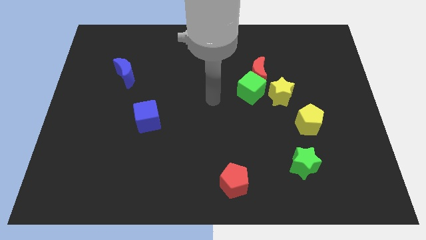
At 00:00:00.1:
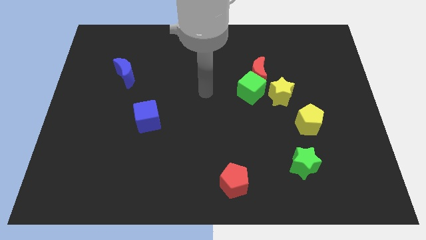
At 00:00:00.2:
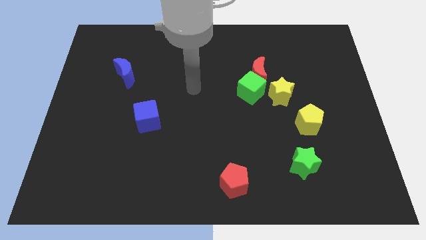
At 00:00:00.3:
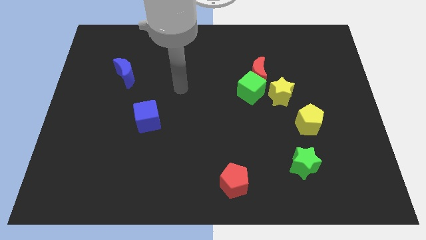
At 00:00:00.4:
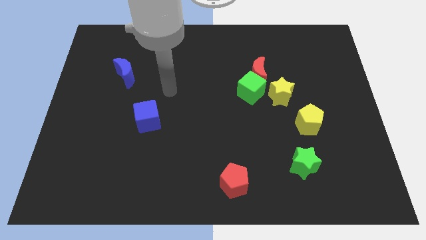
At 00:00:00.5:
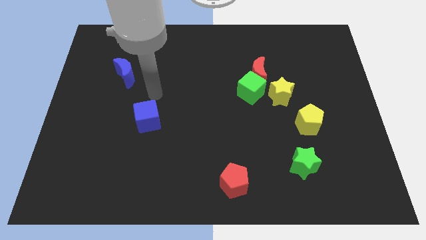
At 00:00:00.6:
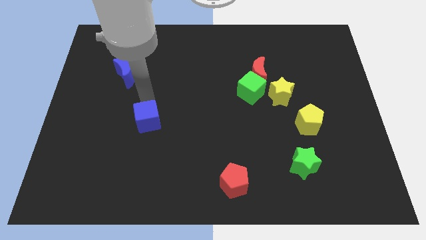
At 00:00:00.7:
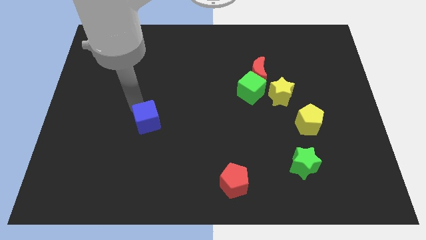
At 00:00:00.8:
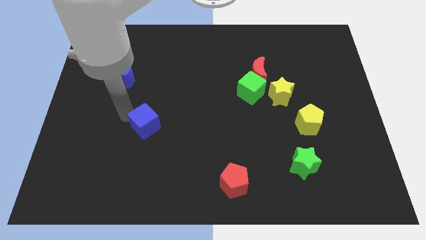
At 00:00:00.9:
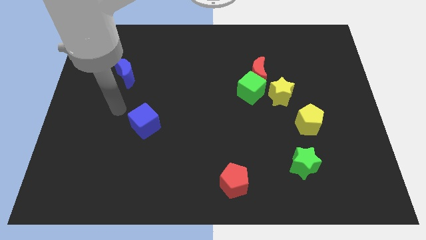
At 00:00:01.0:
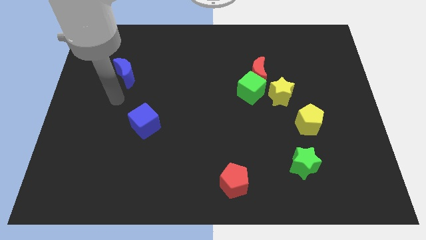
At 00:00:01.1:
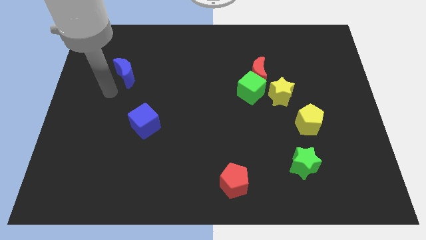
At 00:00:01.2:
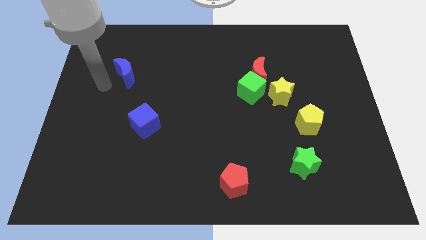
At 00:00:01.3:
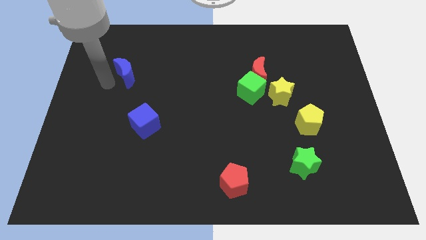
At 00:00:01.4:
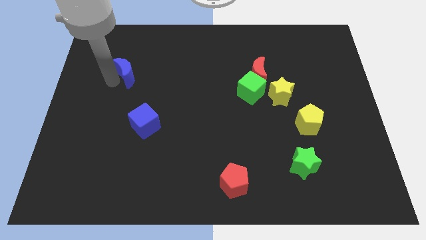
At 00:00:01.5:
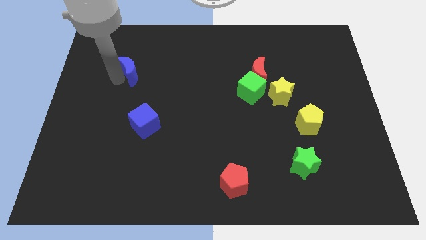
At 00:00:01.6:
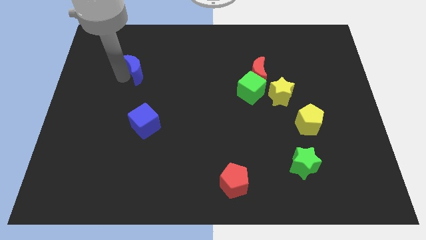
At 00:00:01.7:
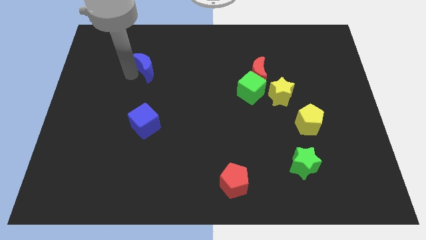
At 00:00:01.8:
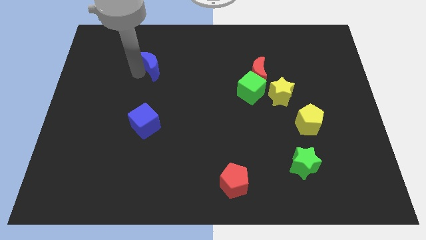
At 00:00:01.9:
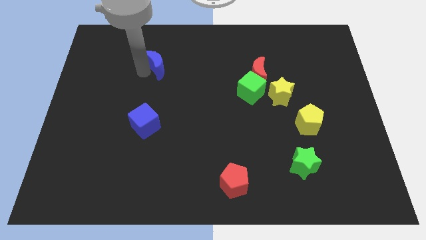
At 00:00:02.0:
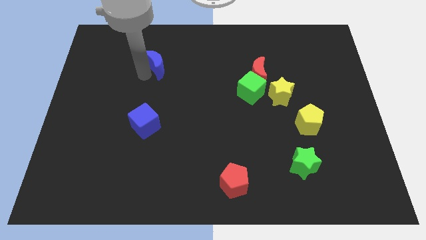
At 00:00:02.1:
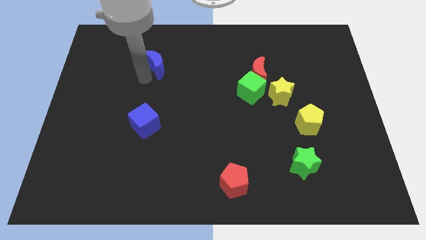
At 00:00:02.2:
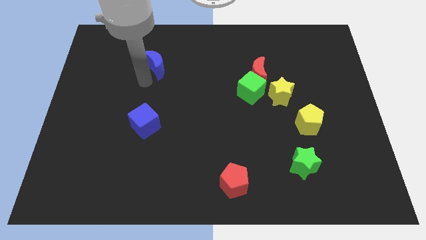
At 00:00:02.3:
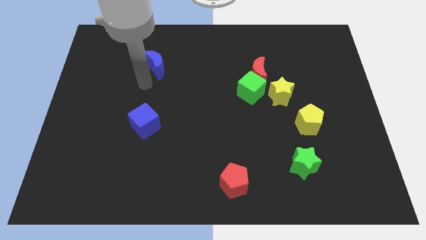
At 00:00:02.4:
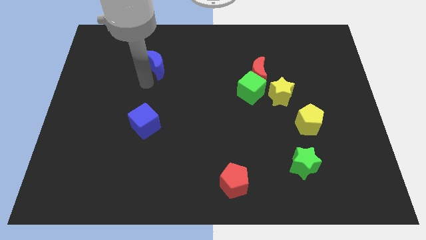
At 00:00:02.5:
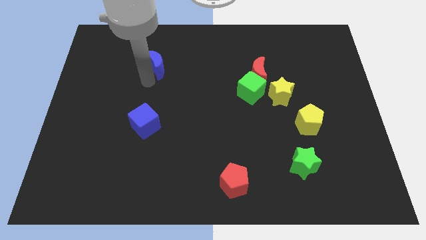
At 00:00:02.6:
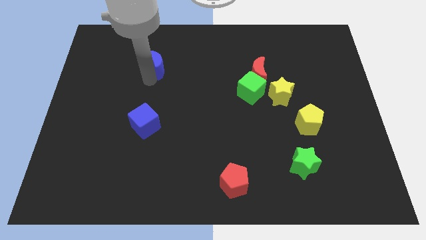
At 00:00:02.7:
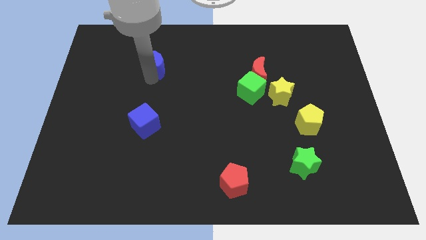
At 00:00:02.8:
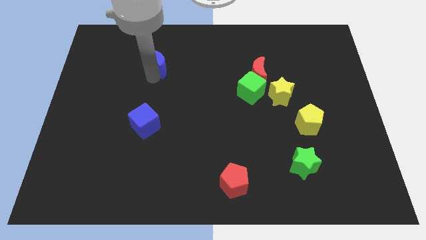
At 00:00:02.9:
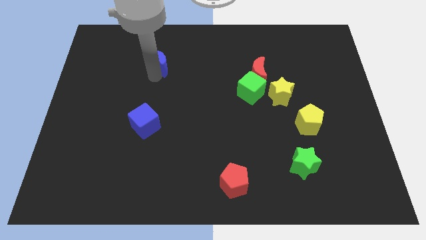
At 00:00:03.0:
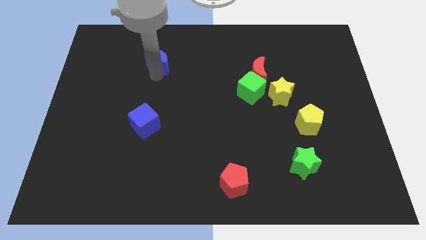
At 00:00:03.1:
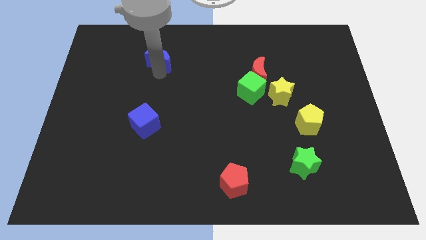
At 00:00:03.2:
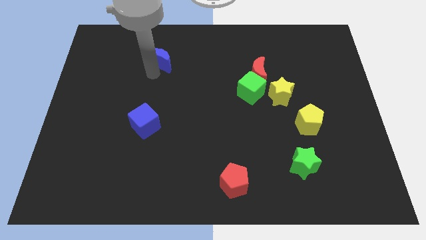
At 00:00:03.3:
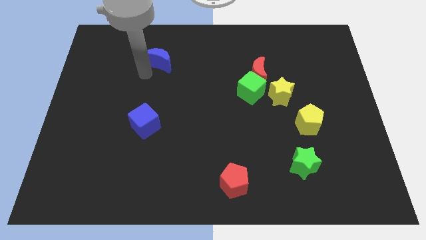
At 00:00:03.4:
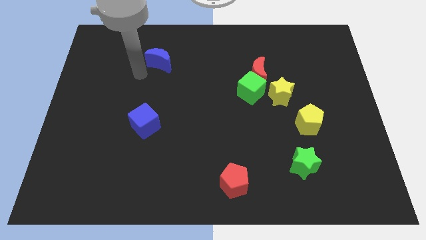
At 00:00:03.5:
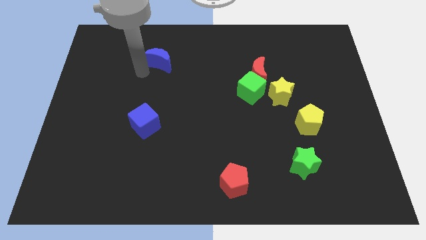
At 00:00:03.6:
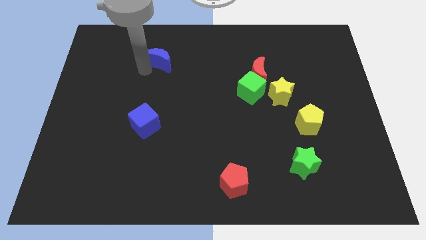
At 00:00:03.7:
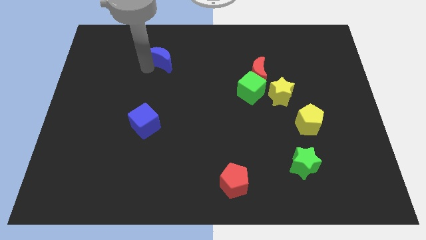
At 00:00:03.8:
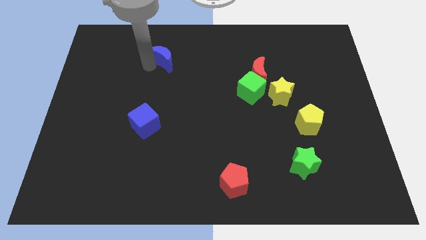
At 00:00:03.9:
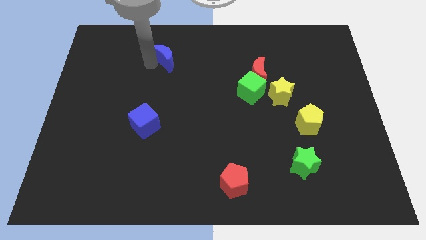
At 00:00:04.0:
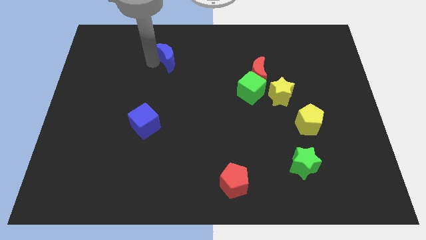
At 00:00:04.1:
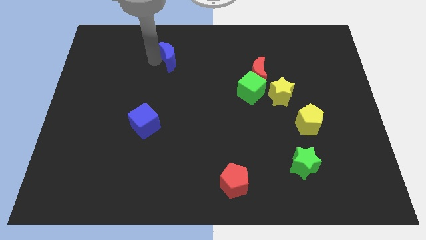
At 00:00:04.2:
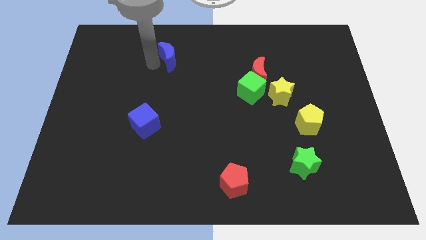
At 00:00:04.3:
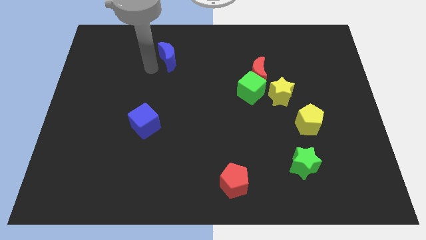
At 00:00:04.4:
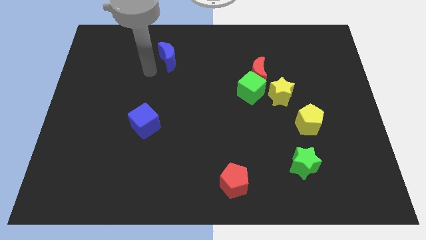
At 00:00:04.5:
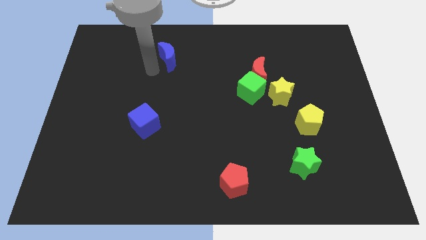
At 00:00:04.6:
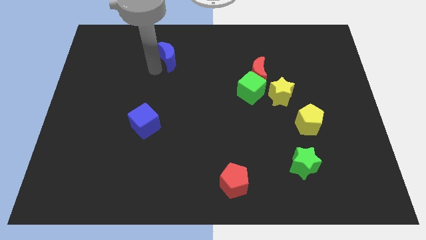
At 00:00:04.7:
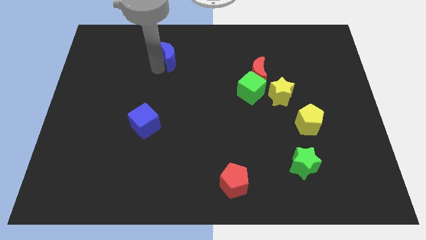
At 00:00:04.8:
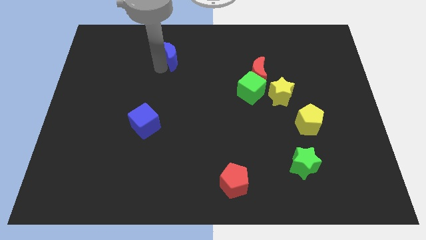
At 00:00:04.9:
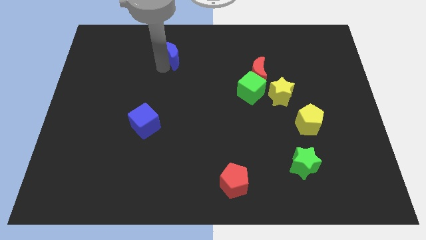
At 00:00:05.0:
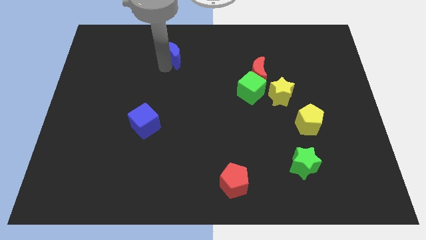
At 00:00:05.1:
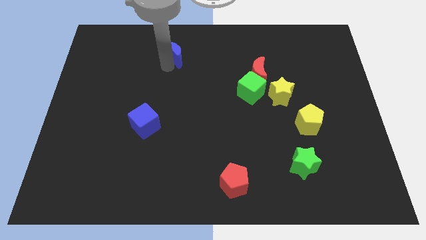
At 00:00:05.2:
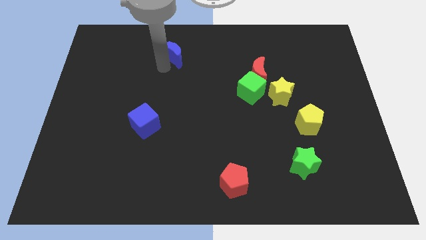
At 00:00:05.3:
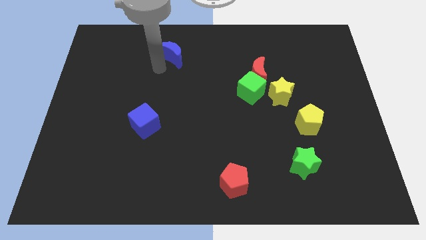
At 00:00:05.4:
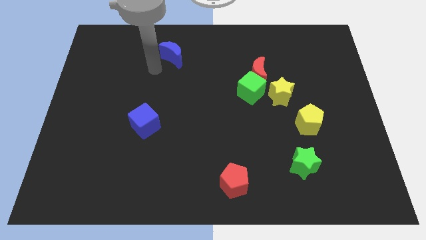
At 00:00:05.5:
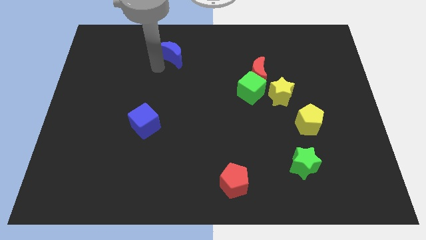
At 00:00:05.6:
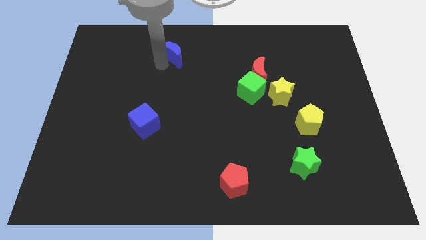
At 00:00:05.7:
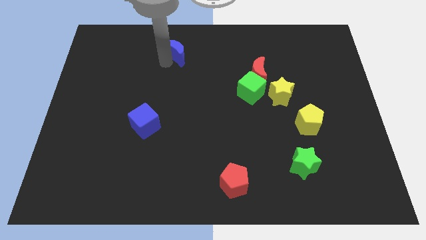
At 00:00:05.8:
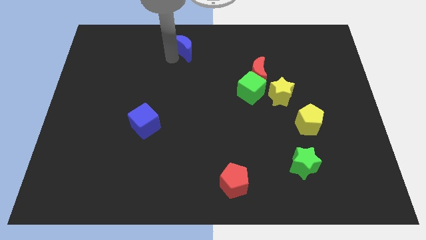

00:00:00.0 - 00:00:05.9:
push the blue moon to the top side
